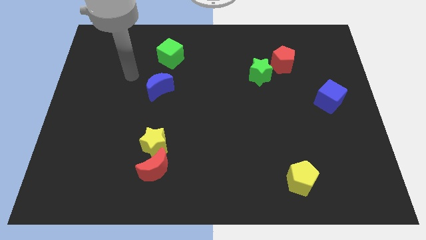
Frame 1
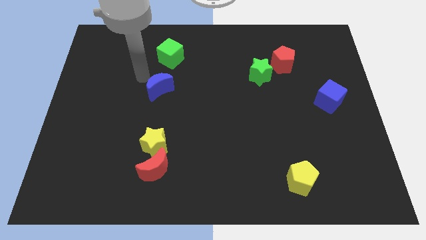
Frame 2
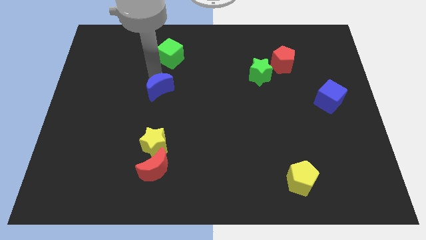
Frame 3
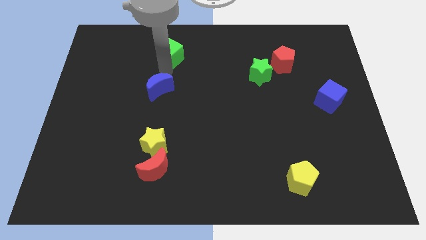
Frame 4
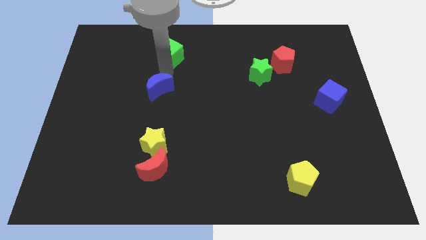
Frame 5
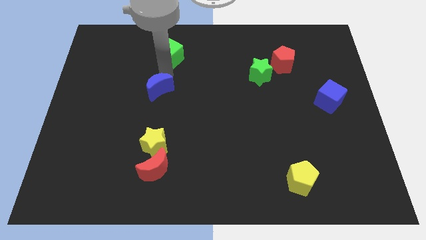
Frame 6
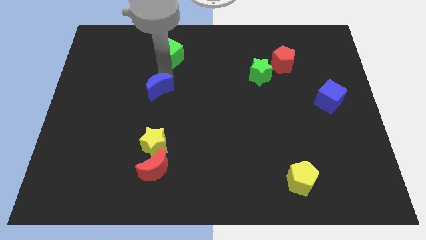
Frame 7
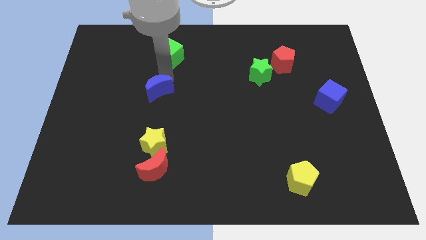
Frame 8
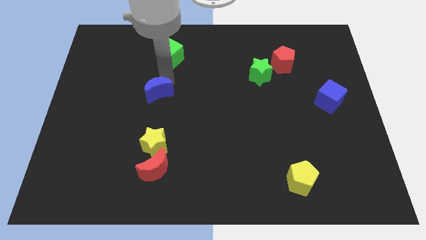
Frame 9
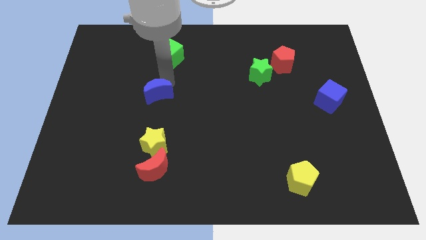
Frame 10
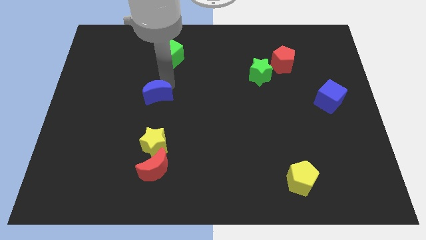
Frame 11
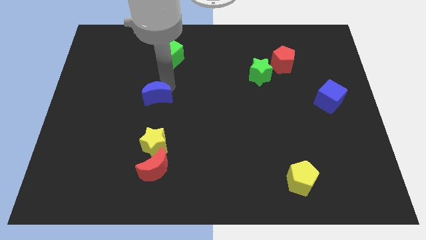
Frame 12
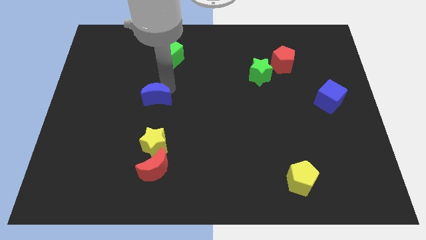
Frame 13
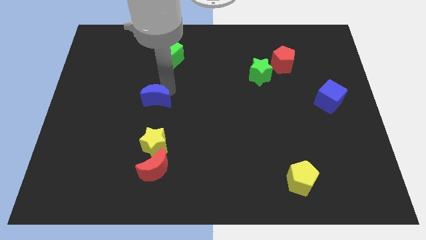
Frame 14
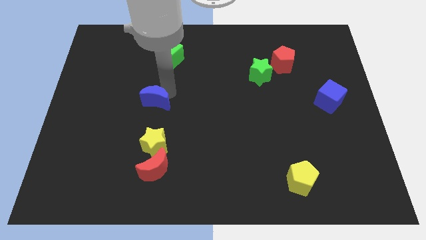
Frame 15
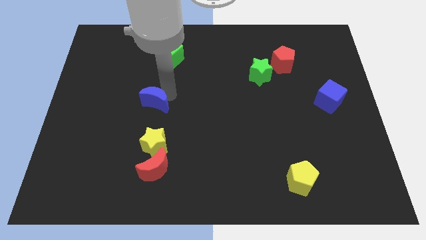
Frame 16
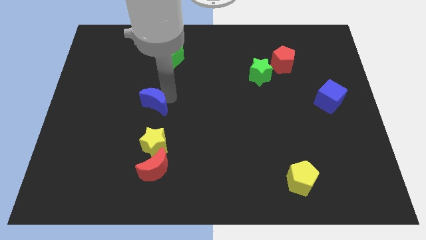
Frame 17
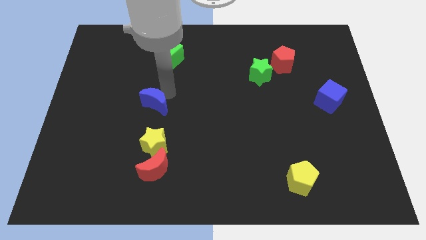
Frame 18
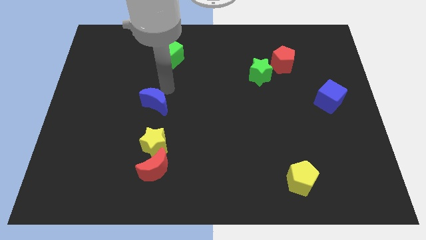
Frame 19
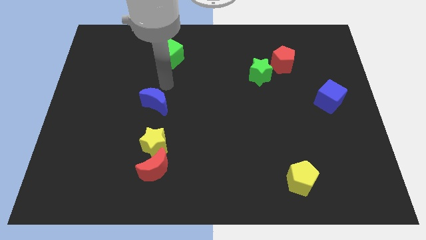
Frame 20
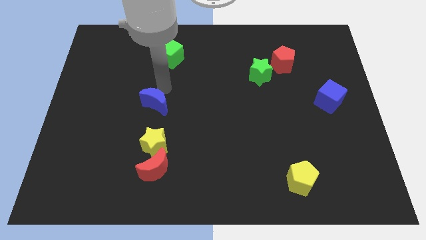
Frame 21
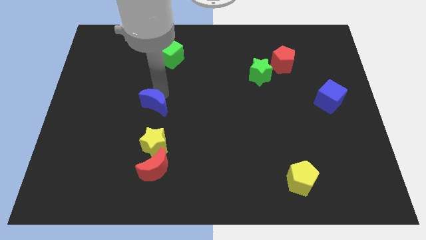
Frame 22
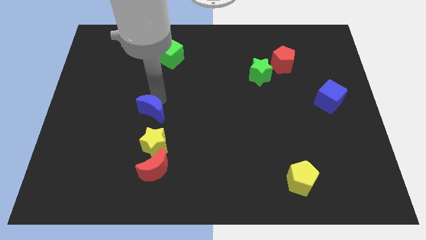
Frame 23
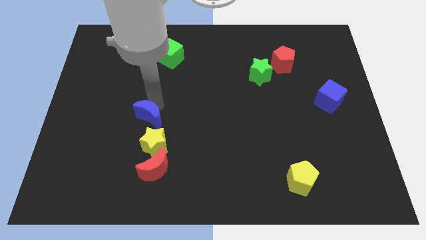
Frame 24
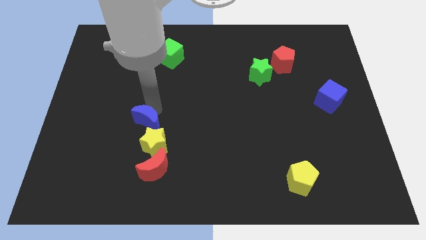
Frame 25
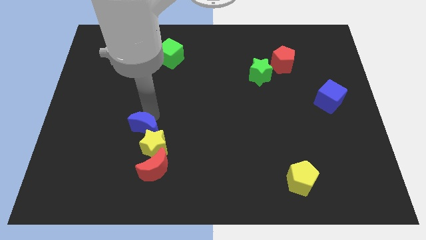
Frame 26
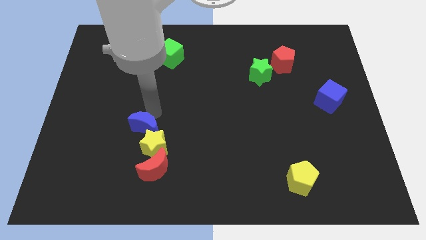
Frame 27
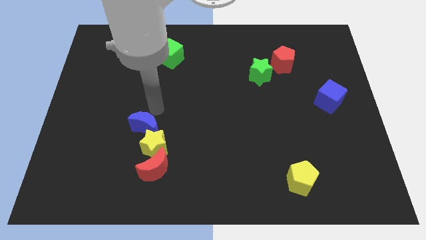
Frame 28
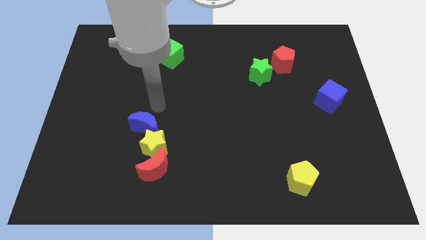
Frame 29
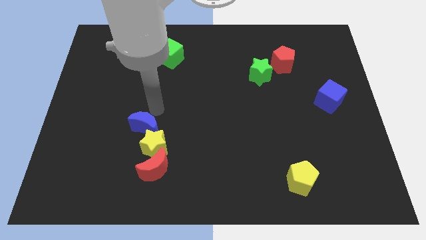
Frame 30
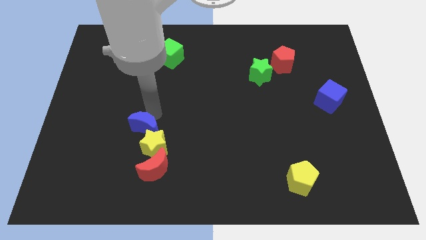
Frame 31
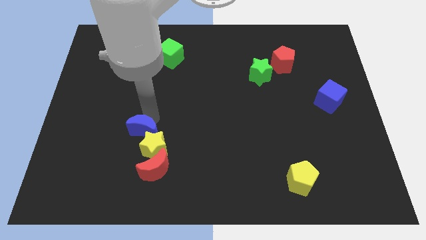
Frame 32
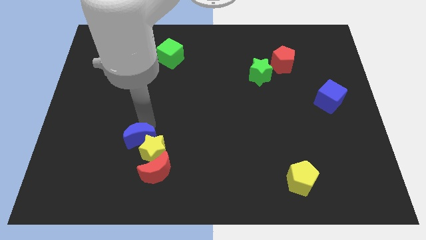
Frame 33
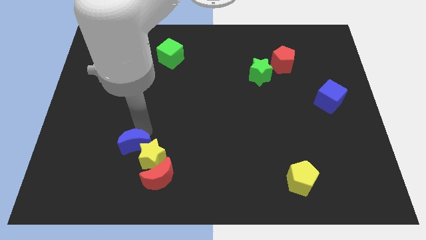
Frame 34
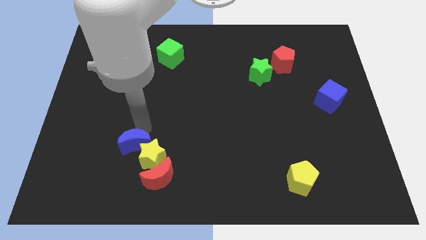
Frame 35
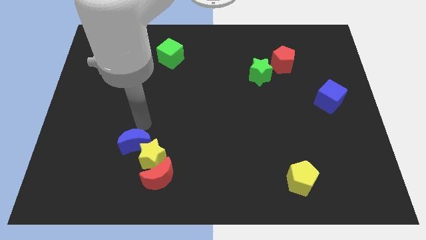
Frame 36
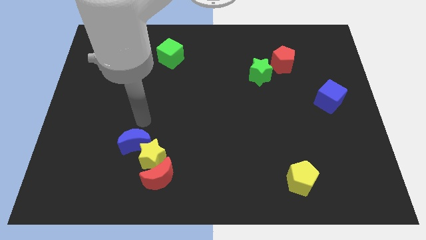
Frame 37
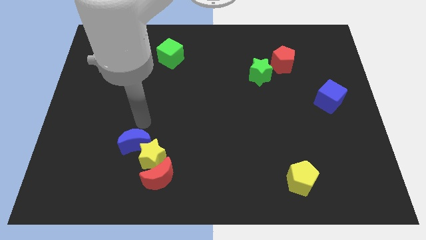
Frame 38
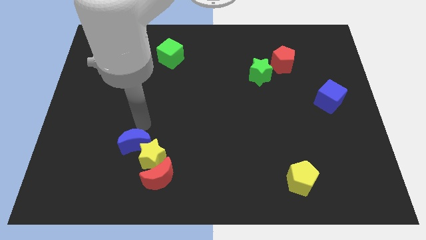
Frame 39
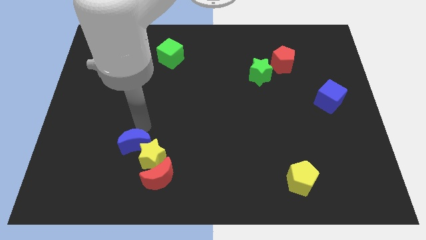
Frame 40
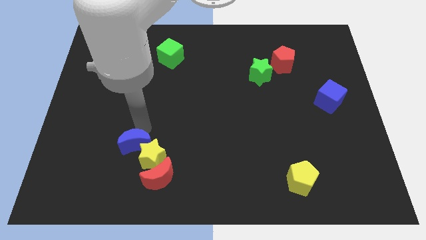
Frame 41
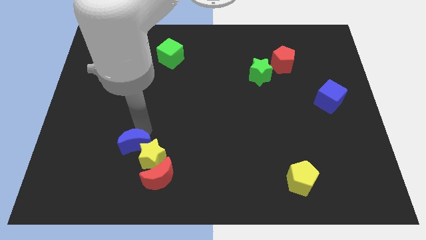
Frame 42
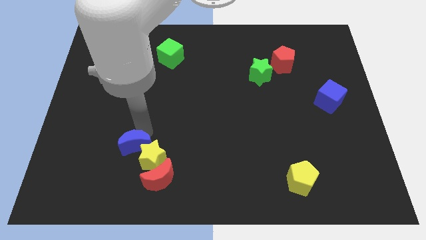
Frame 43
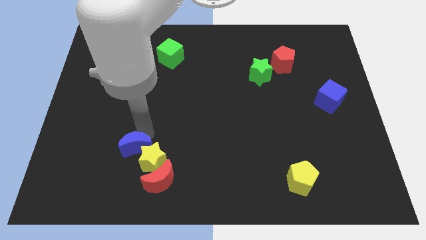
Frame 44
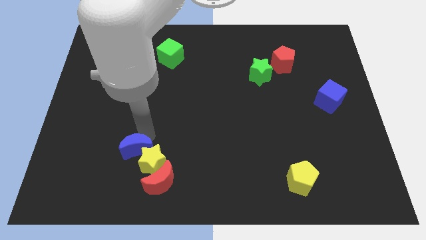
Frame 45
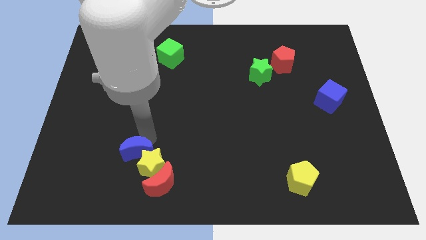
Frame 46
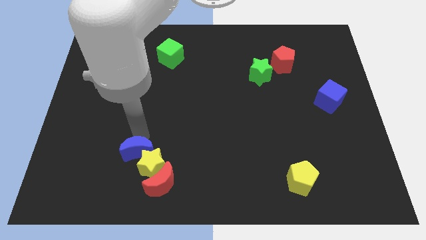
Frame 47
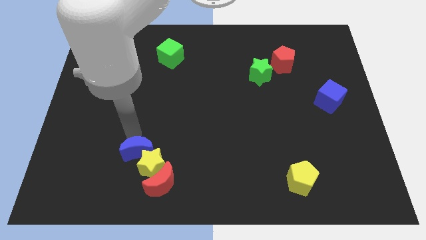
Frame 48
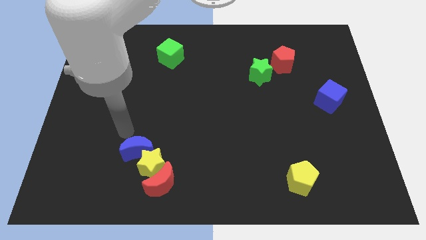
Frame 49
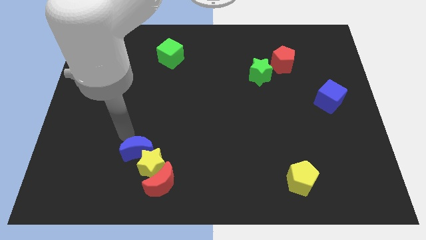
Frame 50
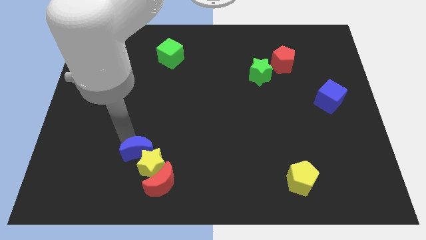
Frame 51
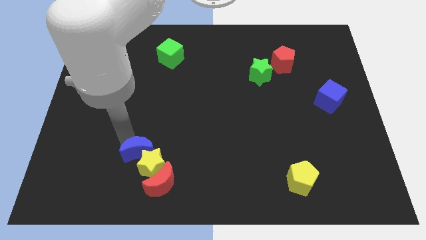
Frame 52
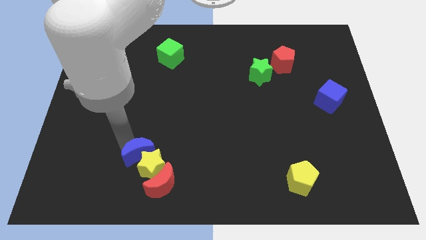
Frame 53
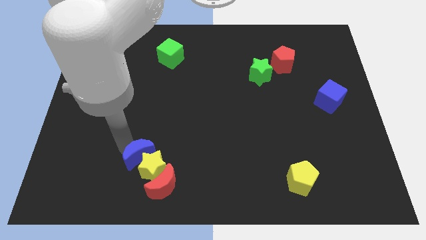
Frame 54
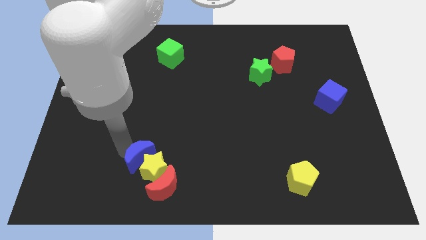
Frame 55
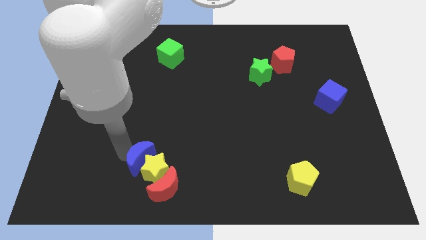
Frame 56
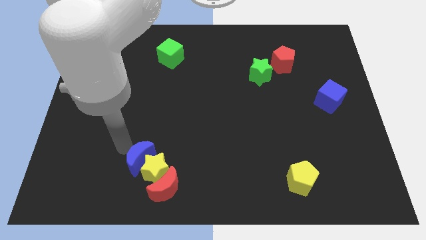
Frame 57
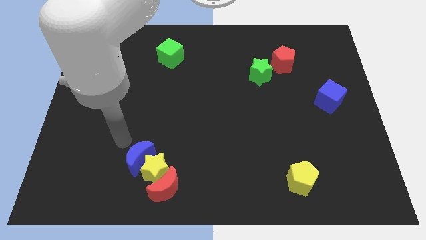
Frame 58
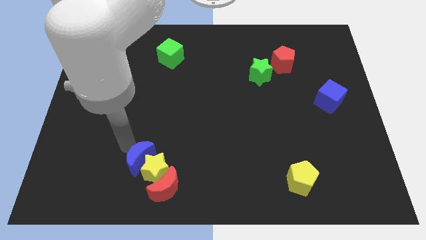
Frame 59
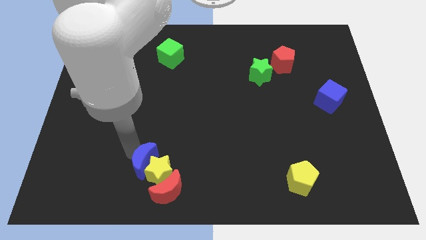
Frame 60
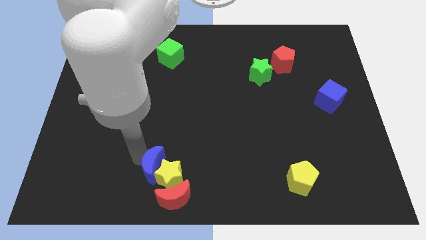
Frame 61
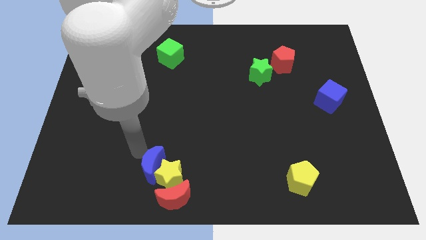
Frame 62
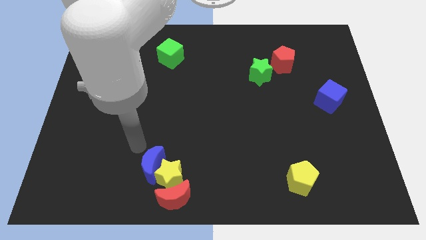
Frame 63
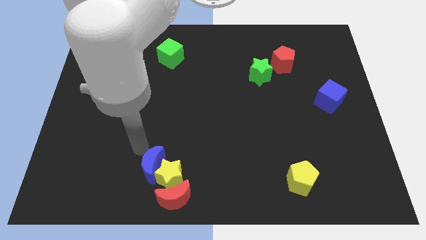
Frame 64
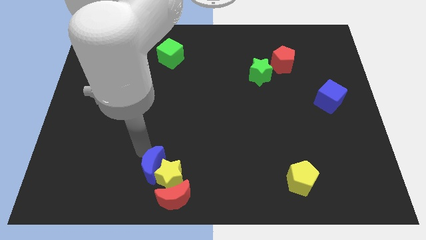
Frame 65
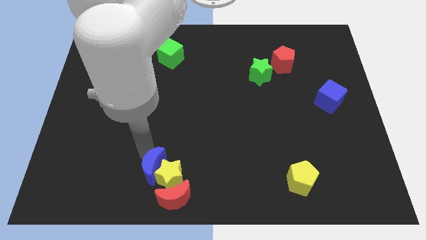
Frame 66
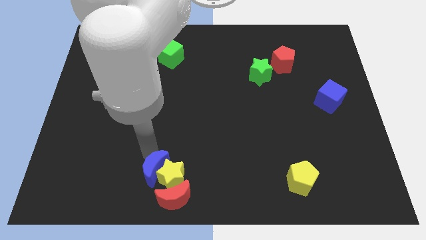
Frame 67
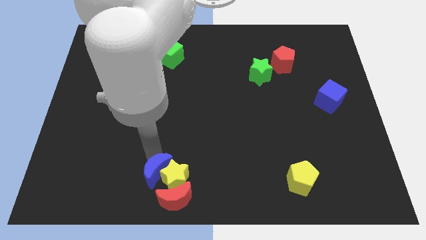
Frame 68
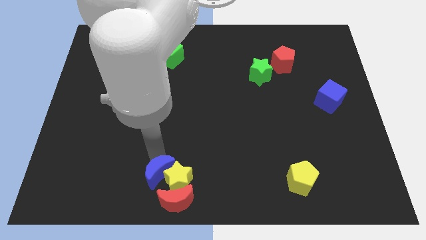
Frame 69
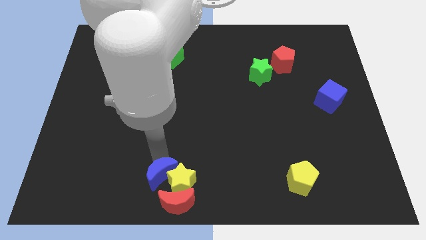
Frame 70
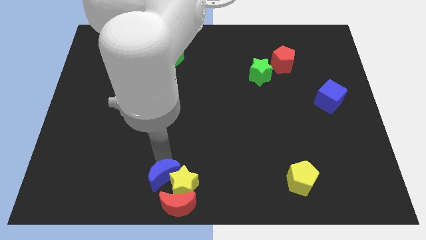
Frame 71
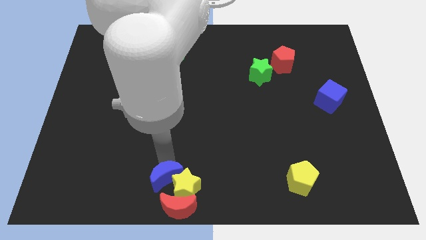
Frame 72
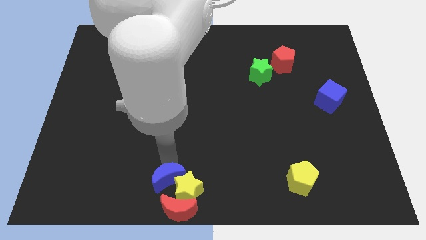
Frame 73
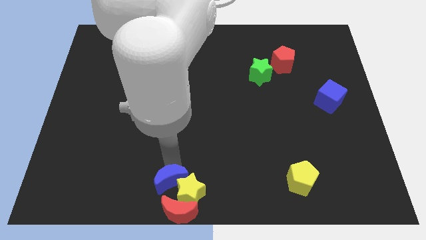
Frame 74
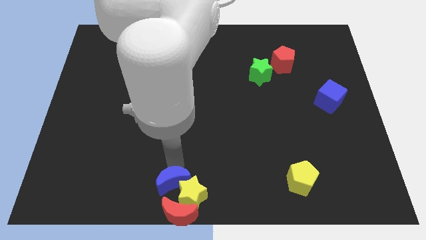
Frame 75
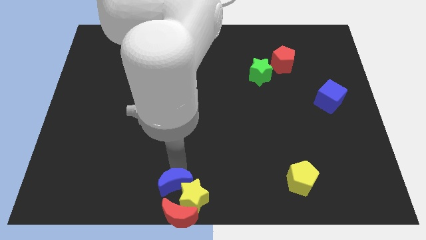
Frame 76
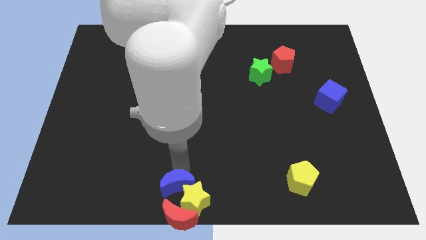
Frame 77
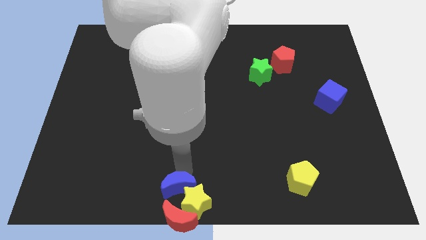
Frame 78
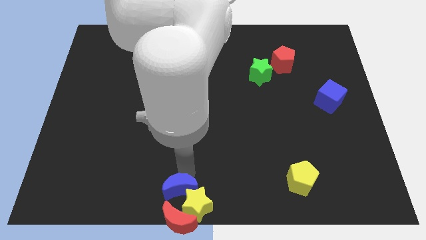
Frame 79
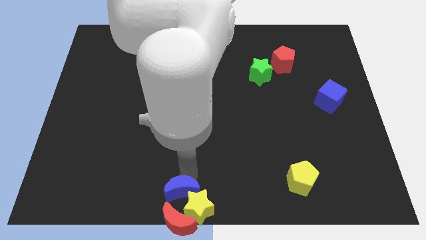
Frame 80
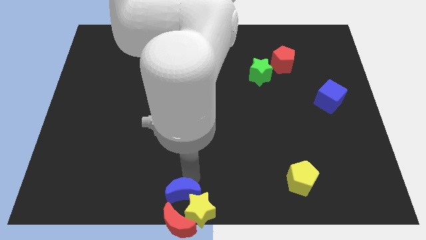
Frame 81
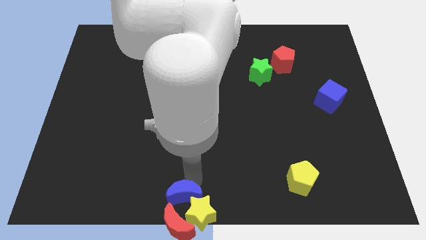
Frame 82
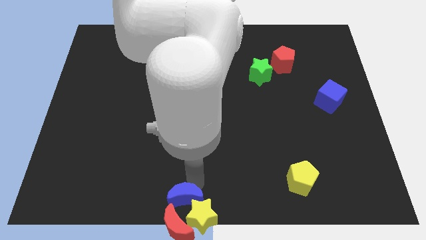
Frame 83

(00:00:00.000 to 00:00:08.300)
put the blue moon towards the red moon
